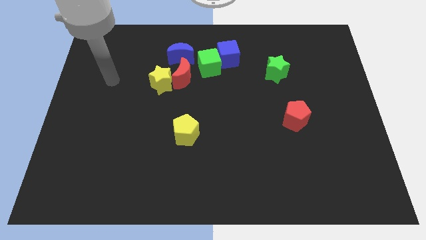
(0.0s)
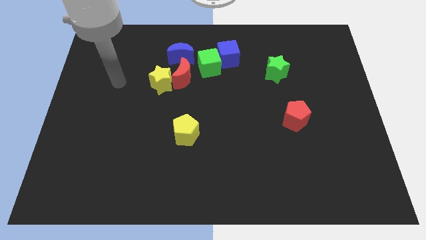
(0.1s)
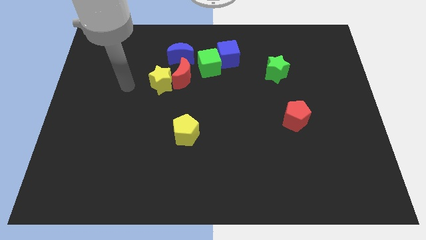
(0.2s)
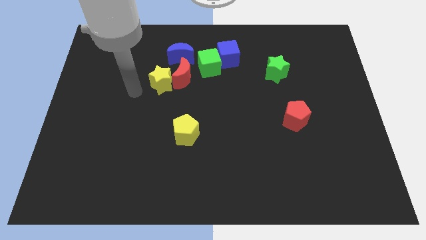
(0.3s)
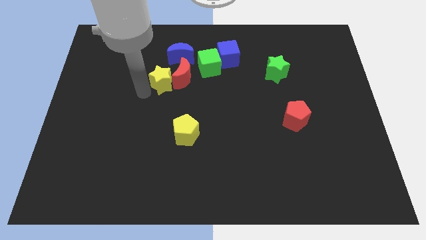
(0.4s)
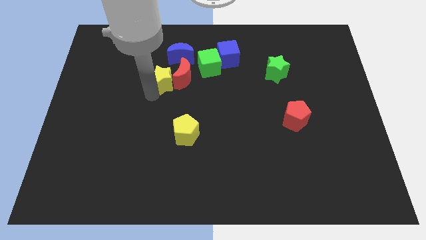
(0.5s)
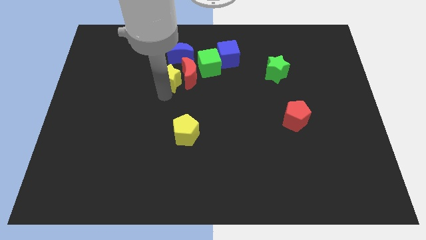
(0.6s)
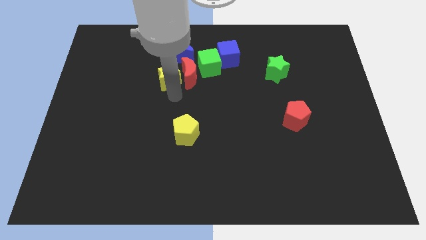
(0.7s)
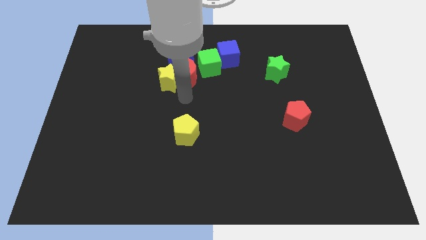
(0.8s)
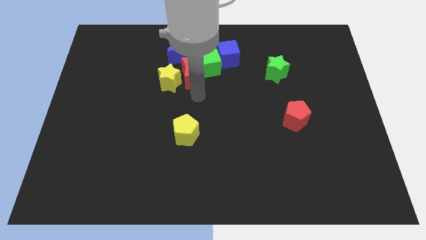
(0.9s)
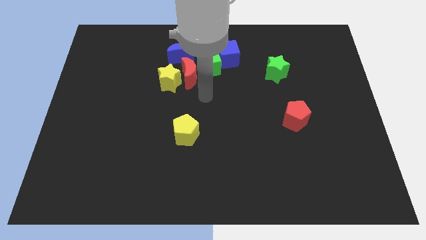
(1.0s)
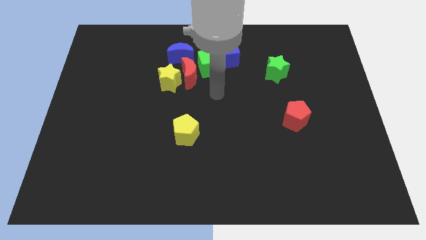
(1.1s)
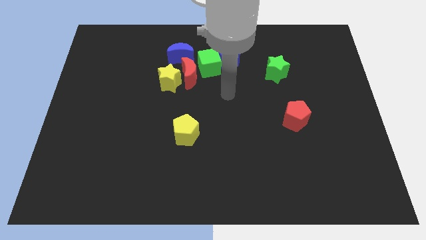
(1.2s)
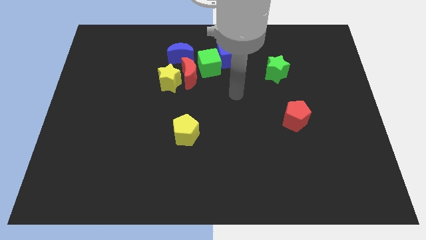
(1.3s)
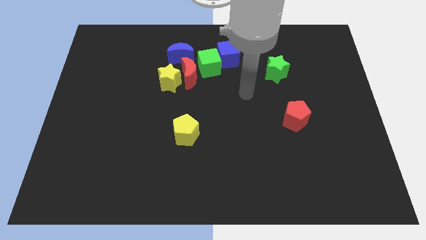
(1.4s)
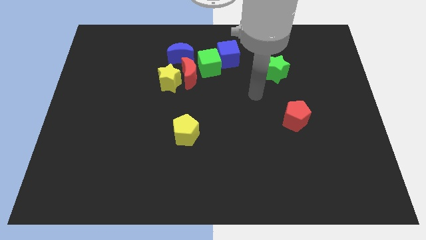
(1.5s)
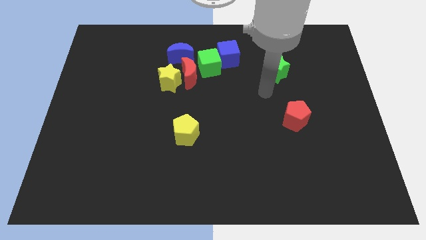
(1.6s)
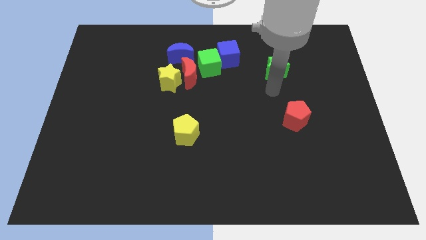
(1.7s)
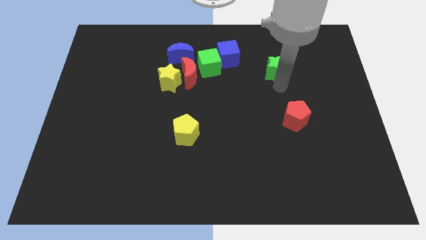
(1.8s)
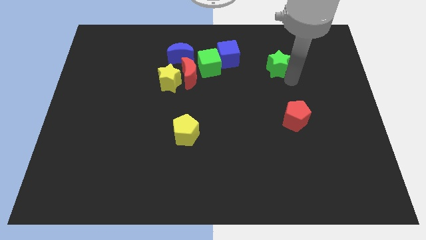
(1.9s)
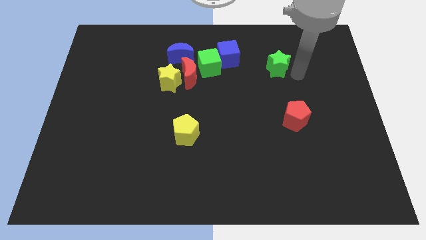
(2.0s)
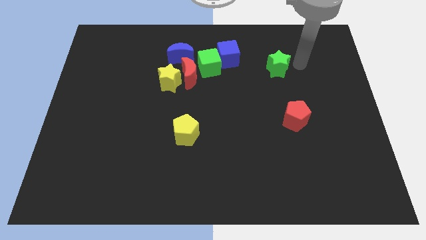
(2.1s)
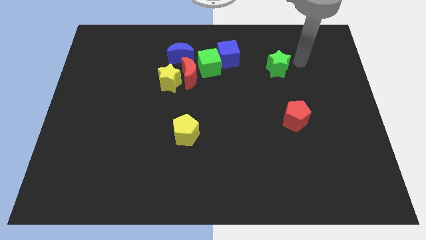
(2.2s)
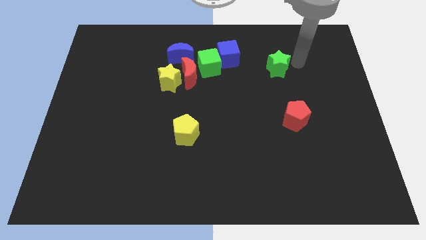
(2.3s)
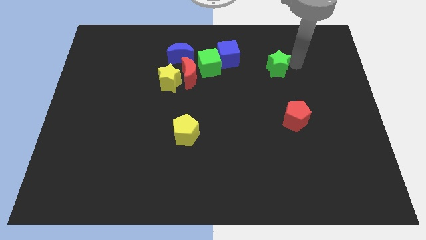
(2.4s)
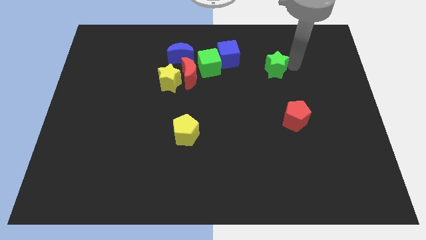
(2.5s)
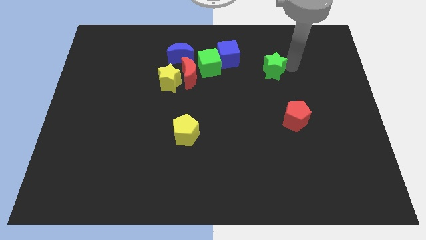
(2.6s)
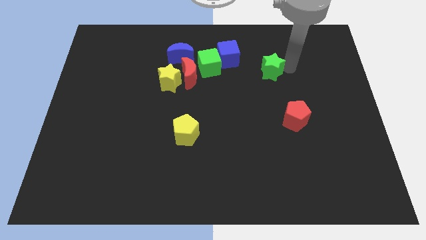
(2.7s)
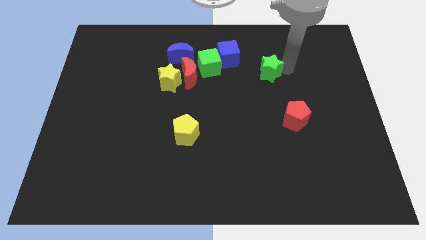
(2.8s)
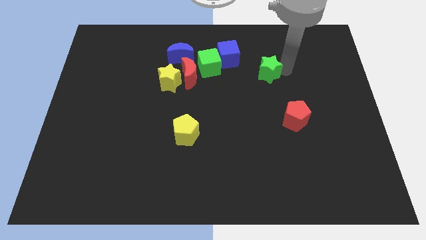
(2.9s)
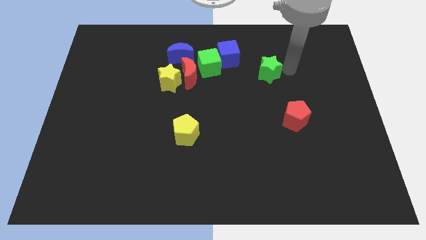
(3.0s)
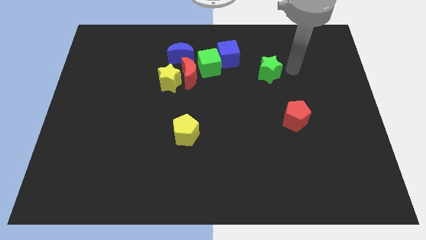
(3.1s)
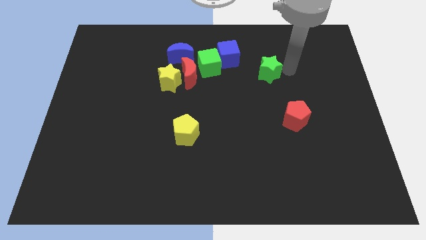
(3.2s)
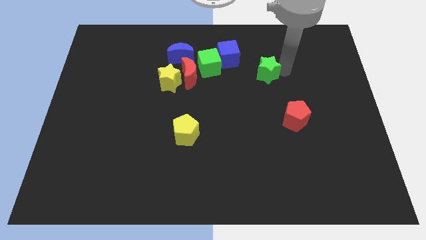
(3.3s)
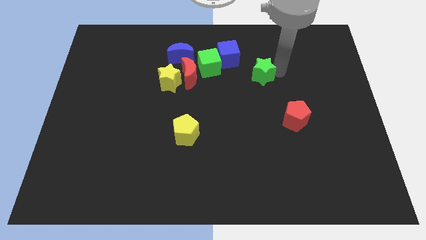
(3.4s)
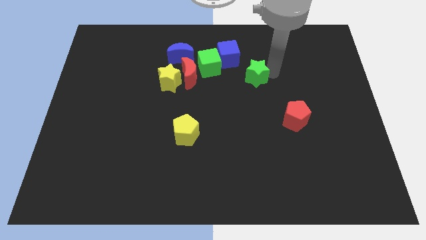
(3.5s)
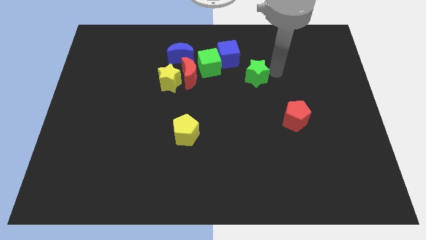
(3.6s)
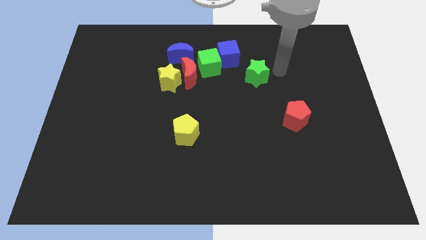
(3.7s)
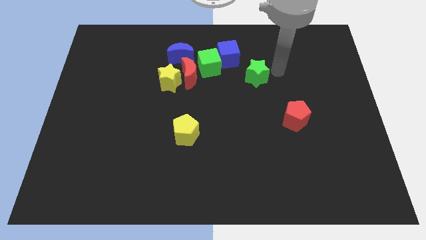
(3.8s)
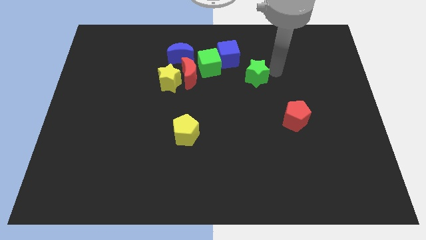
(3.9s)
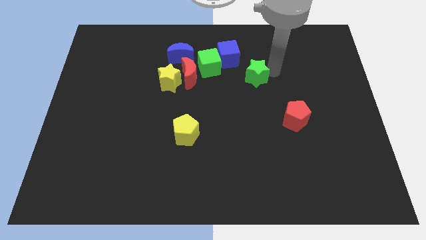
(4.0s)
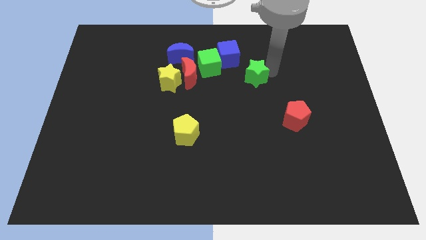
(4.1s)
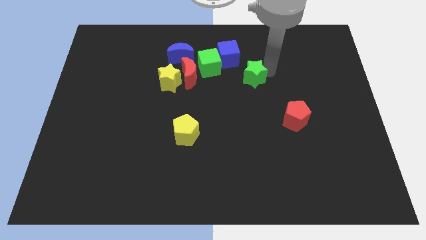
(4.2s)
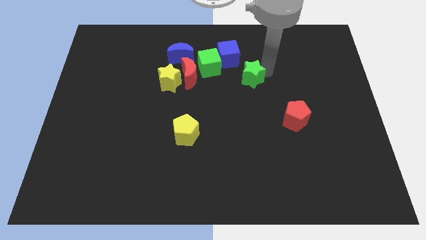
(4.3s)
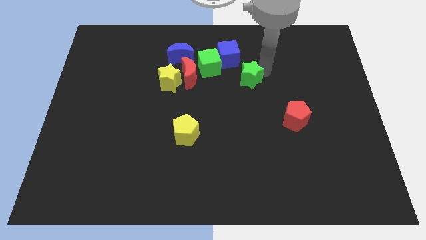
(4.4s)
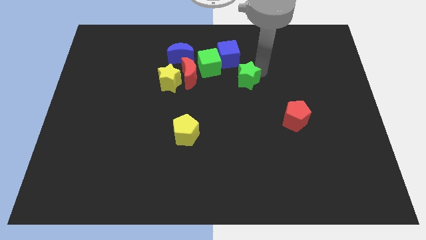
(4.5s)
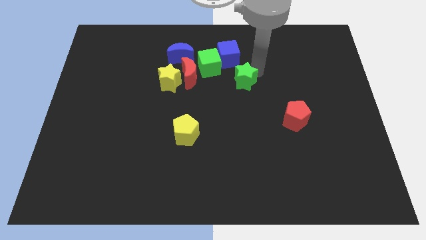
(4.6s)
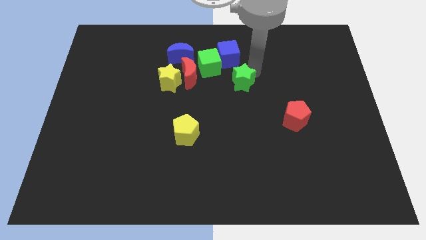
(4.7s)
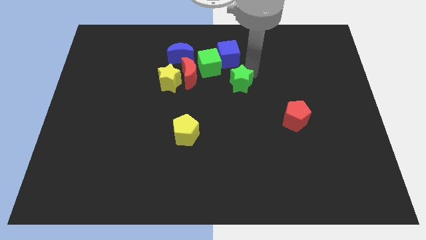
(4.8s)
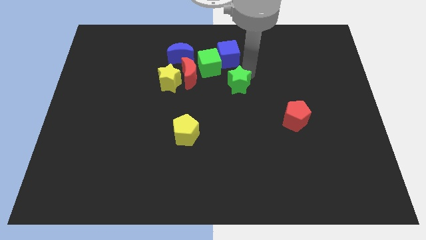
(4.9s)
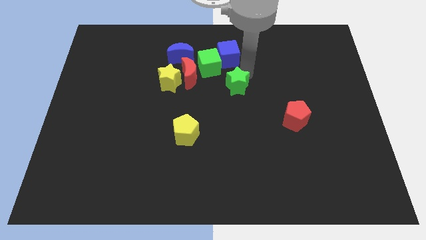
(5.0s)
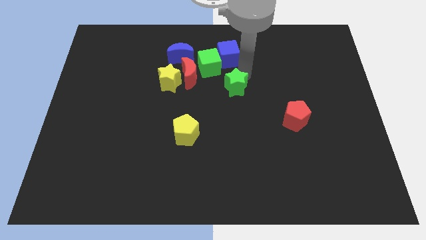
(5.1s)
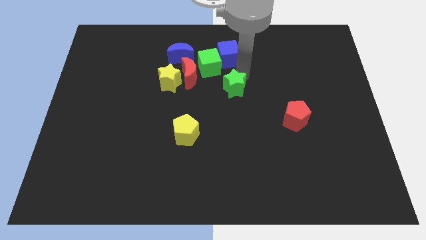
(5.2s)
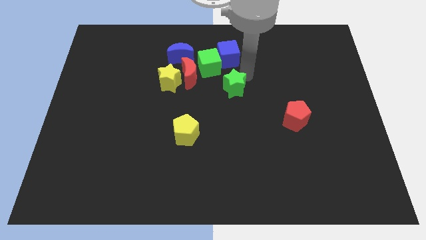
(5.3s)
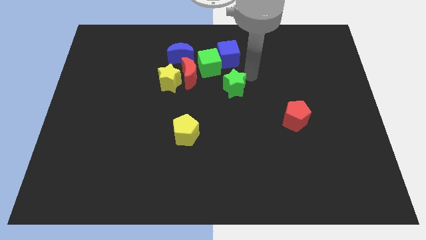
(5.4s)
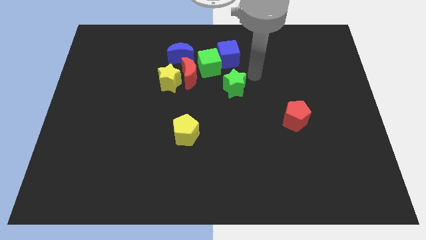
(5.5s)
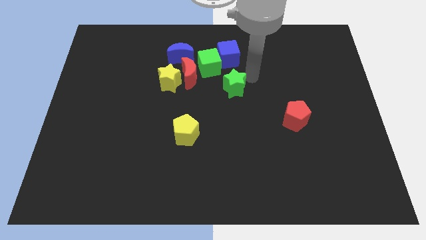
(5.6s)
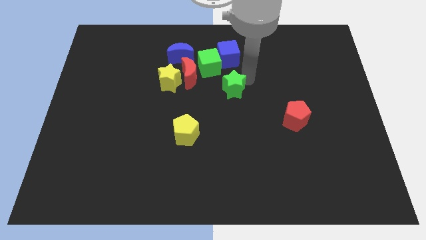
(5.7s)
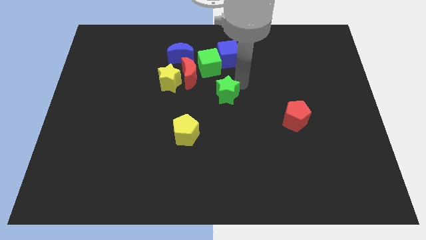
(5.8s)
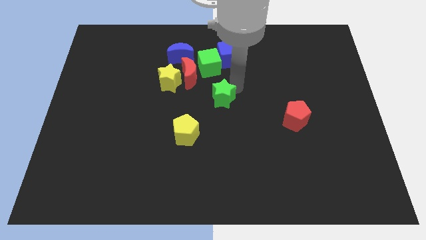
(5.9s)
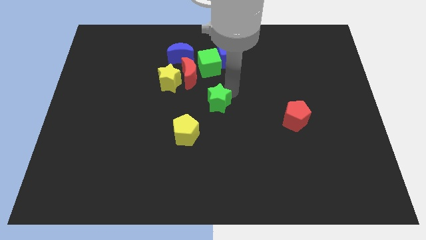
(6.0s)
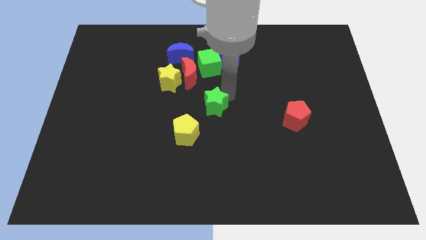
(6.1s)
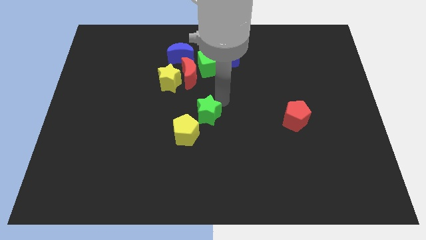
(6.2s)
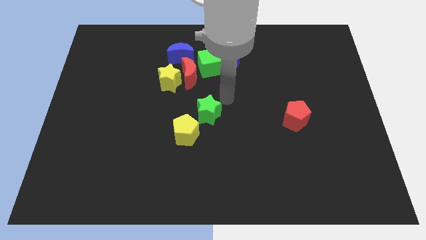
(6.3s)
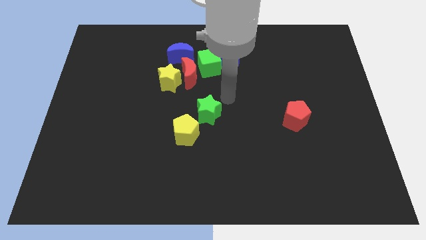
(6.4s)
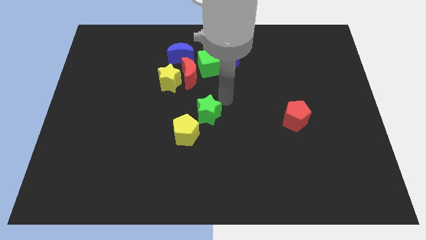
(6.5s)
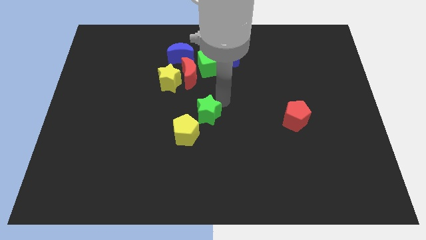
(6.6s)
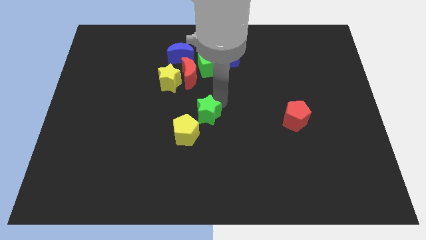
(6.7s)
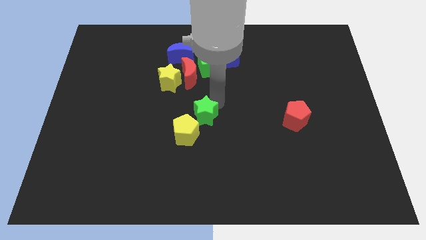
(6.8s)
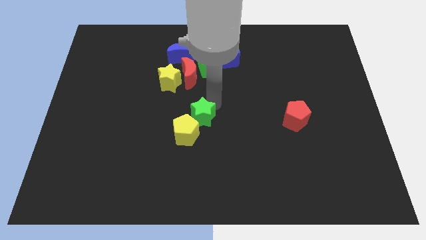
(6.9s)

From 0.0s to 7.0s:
move the green star next to the yellow pentagon

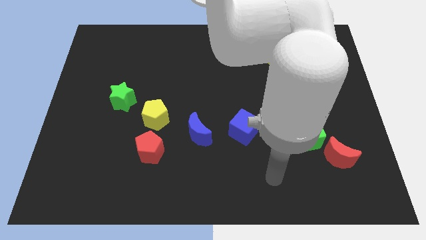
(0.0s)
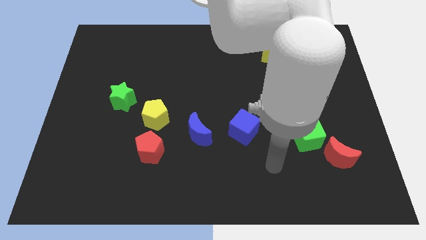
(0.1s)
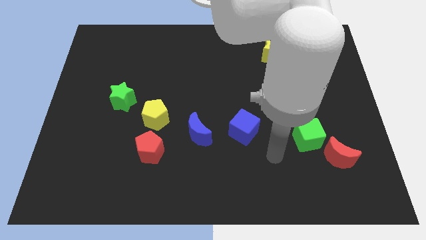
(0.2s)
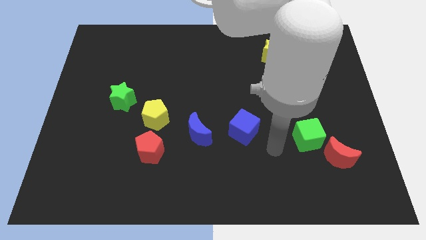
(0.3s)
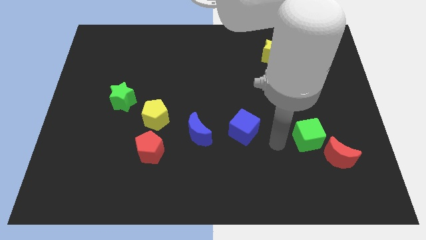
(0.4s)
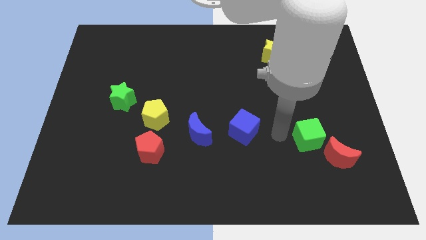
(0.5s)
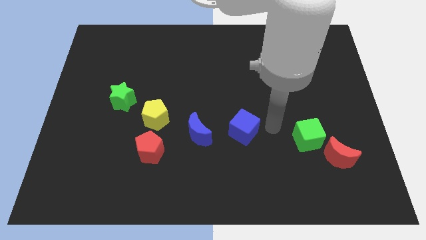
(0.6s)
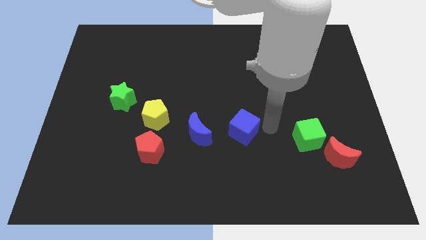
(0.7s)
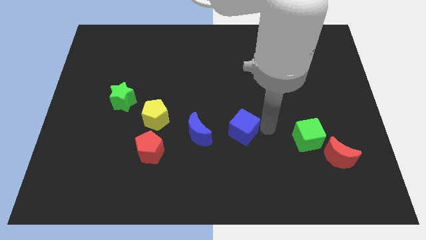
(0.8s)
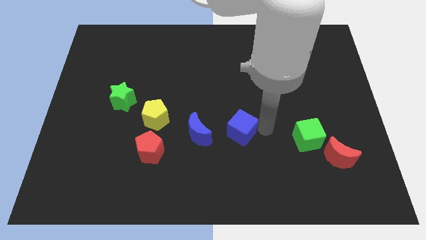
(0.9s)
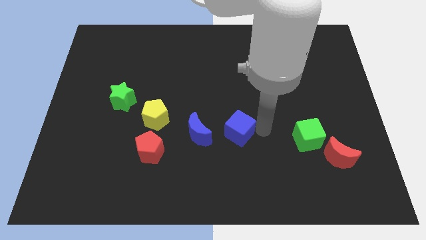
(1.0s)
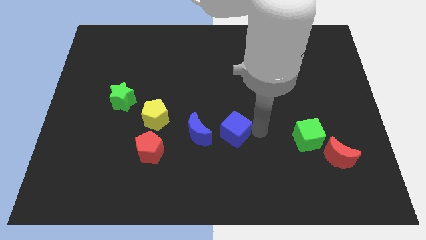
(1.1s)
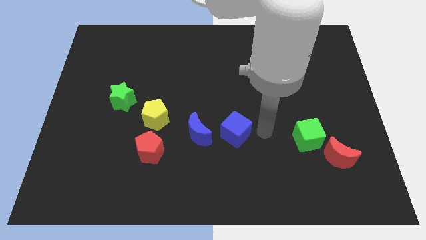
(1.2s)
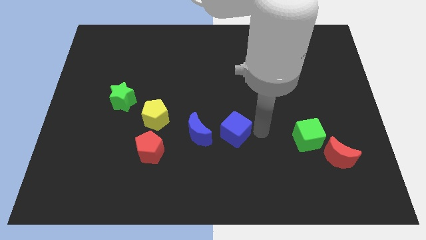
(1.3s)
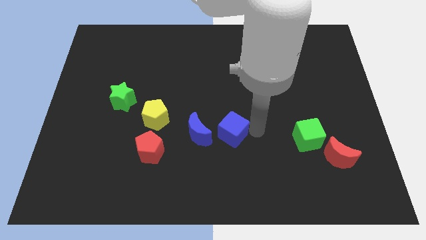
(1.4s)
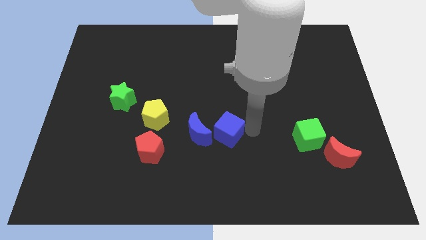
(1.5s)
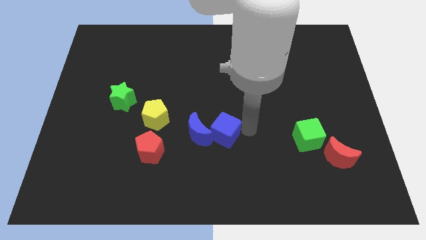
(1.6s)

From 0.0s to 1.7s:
push the blue cube towards the blue moon
